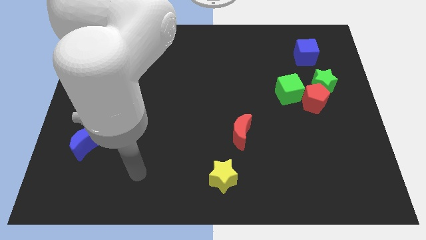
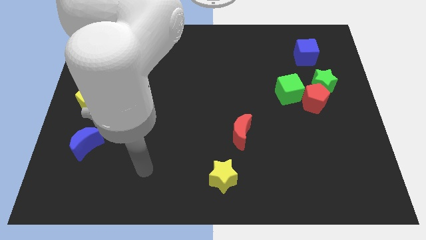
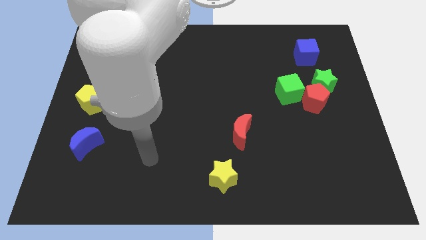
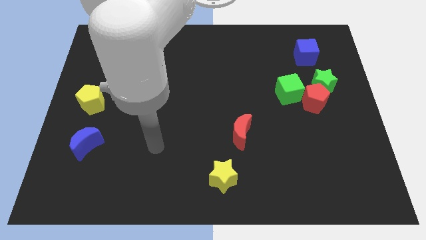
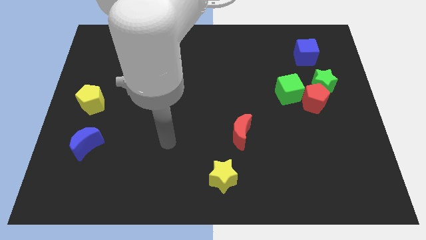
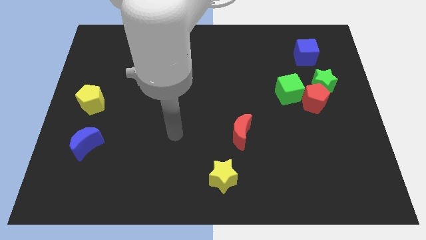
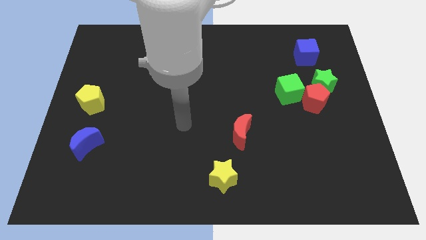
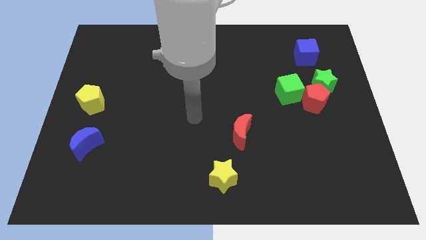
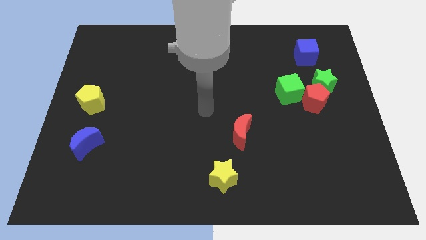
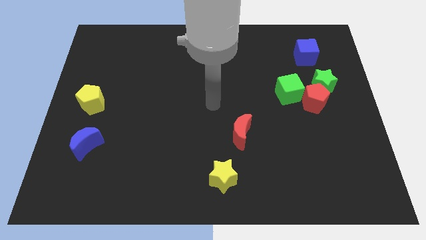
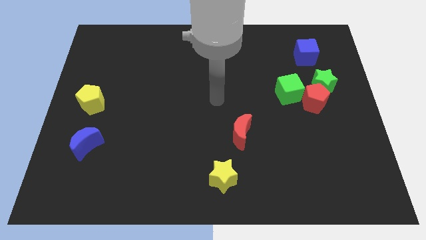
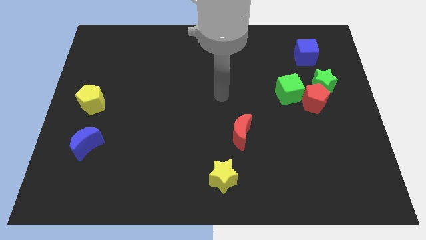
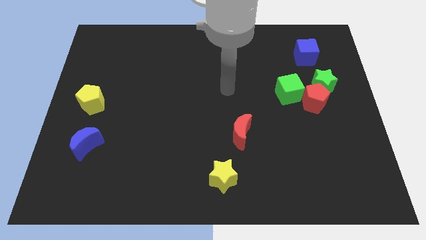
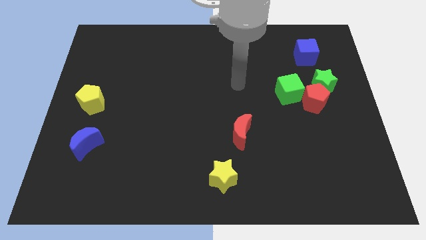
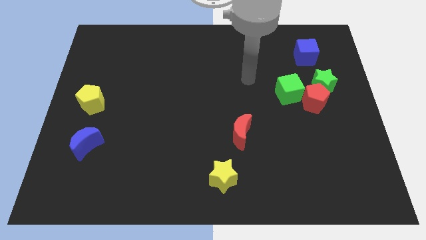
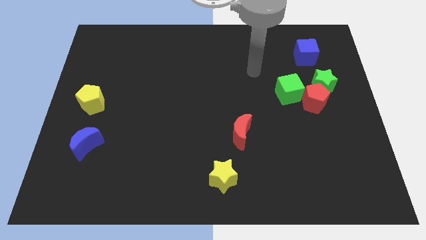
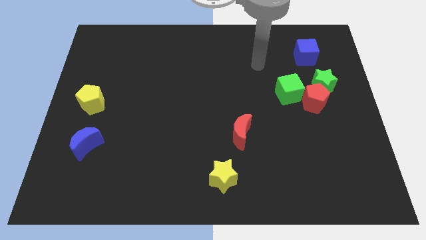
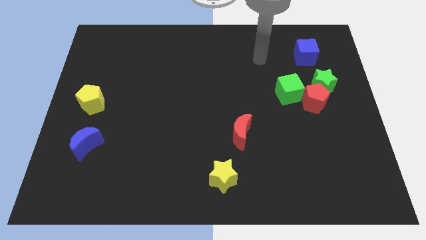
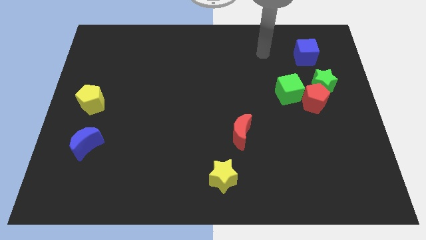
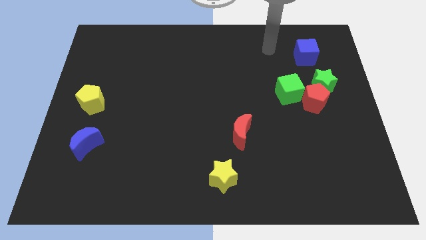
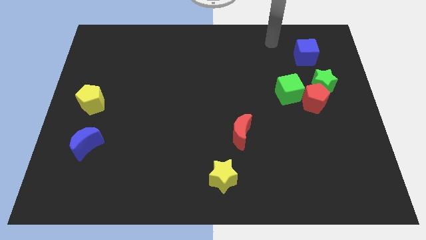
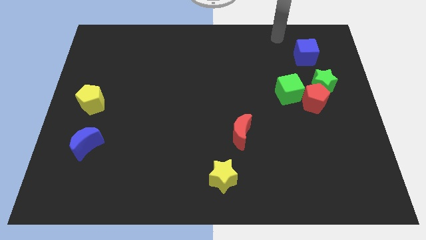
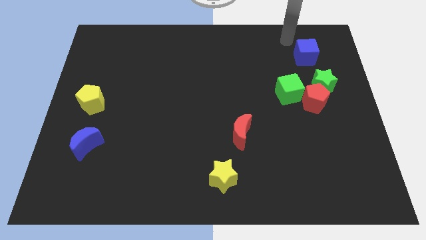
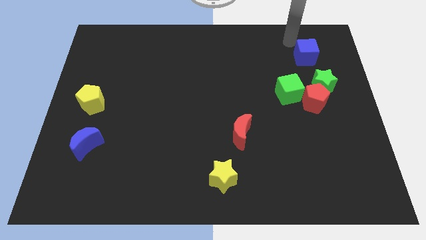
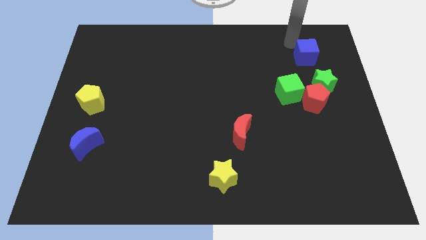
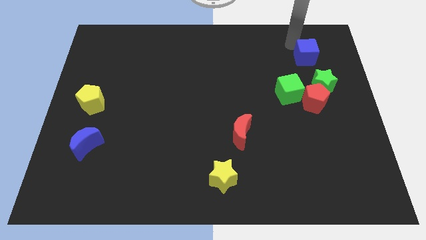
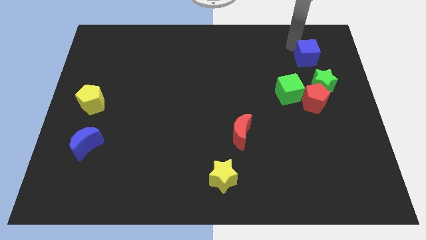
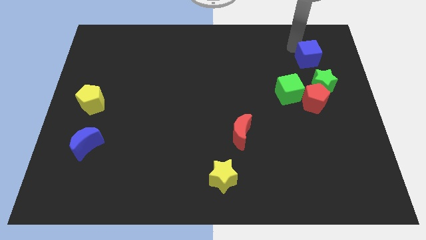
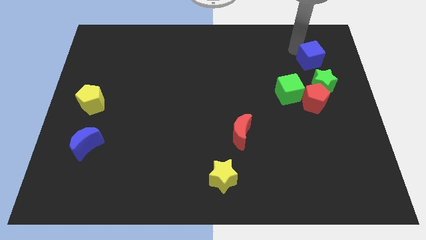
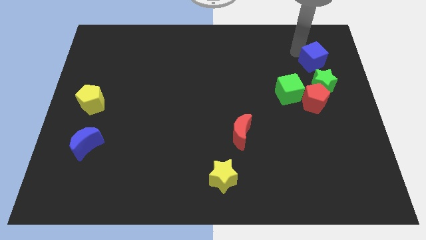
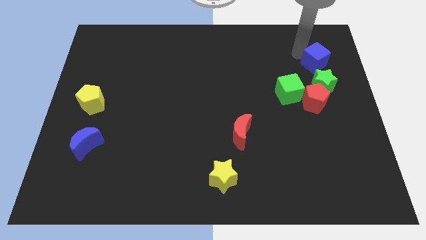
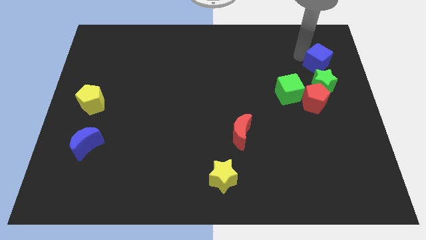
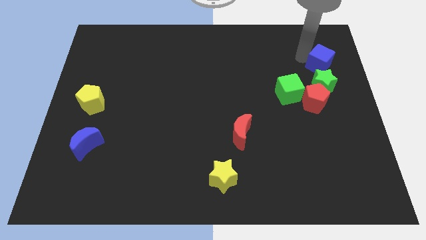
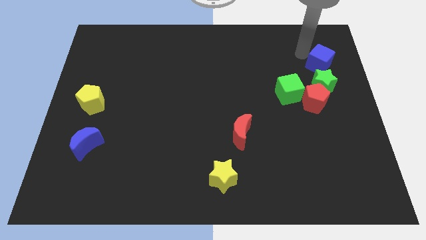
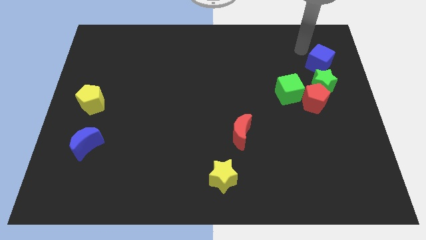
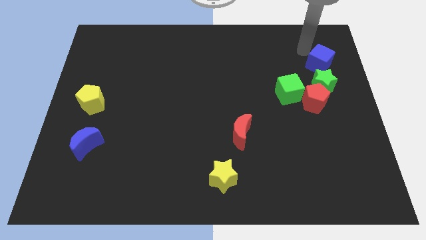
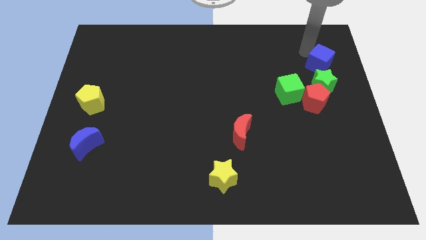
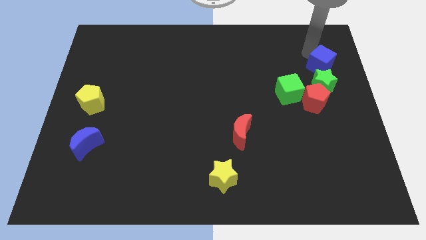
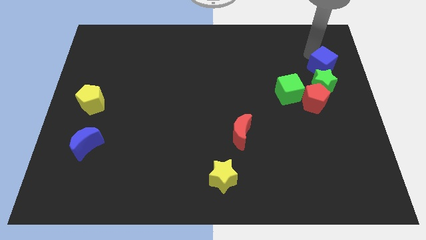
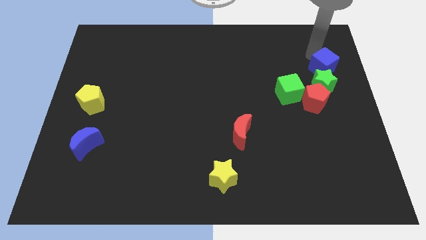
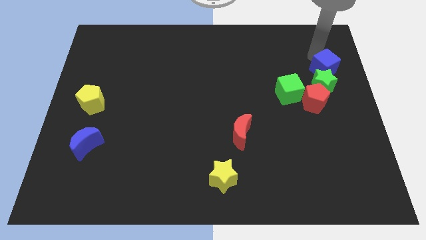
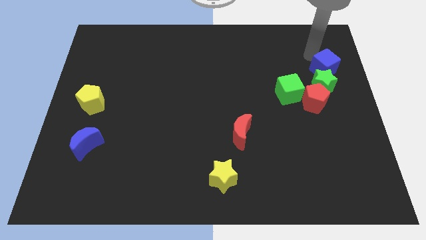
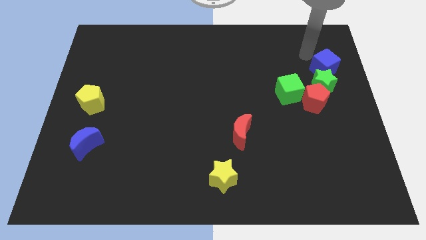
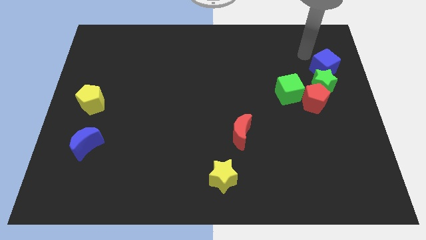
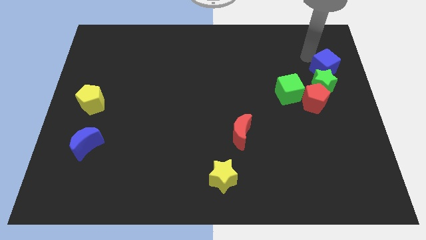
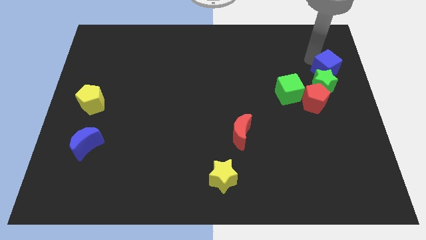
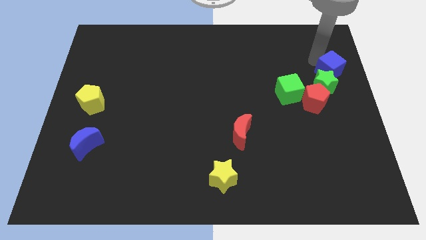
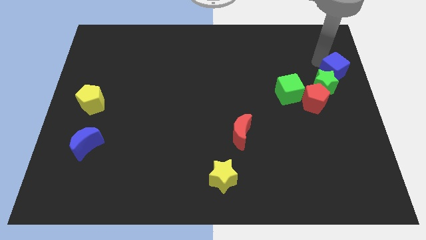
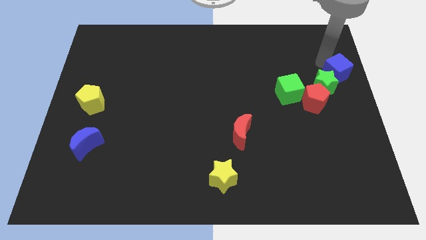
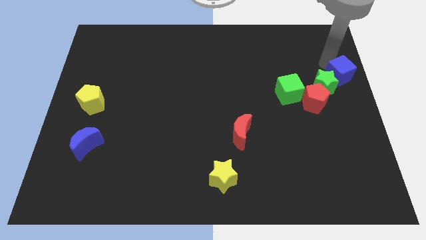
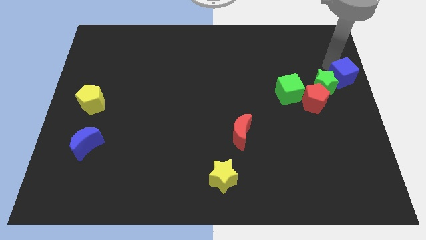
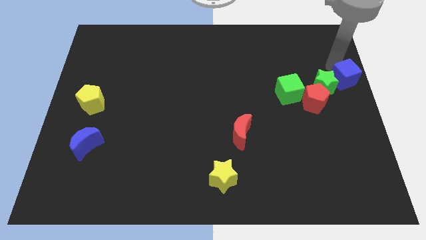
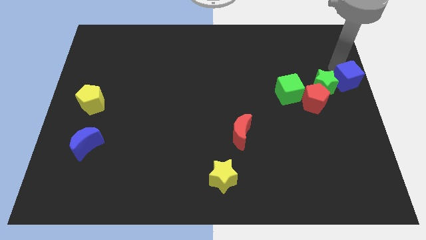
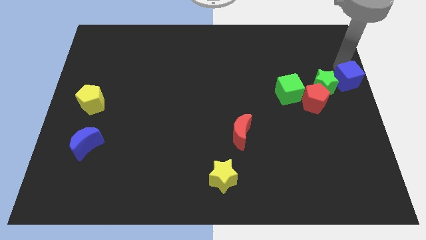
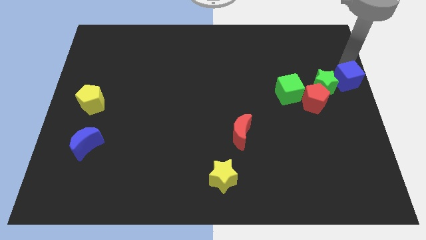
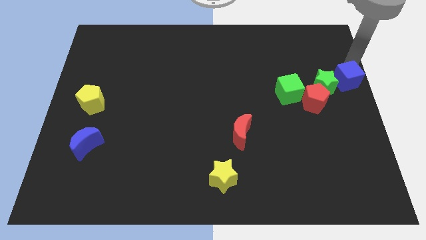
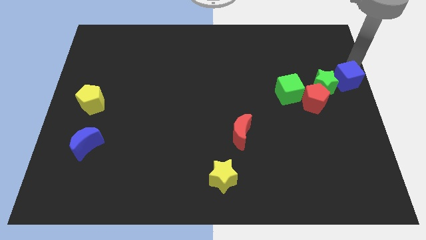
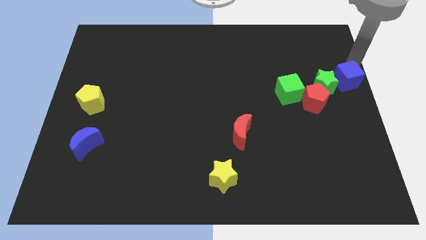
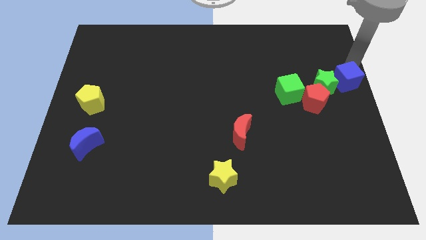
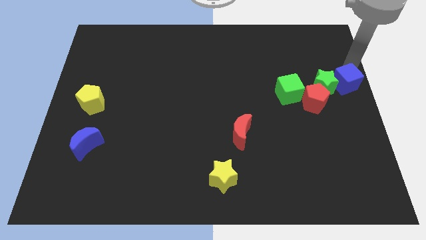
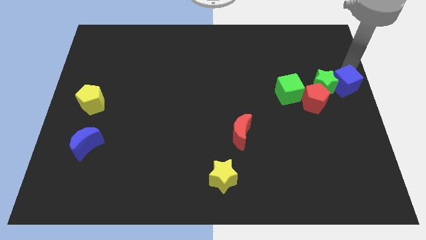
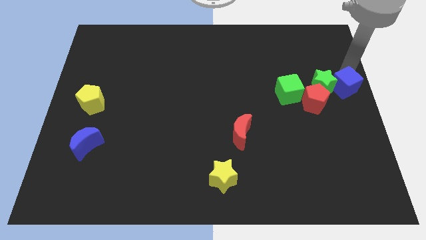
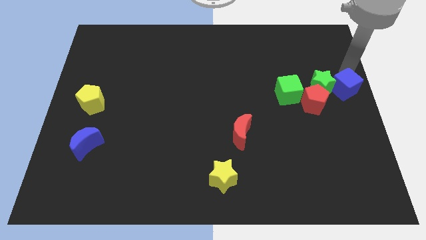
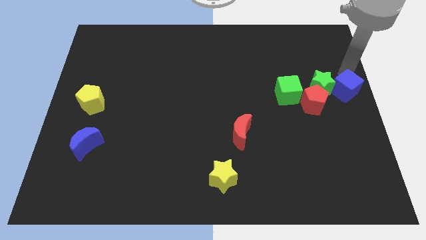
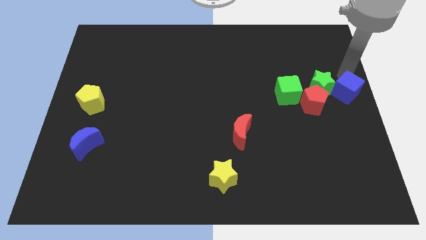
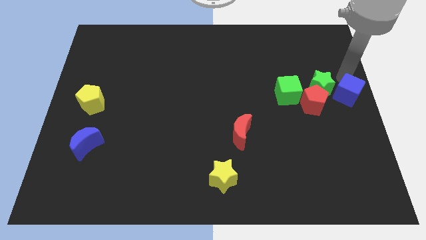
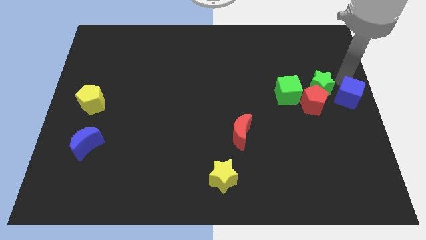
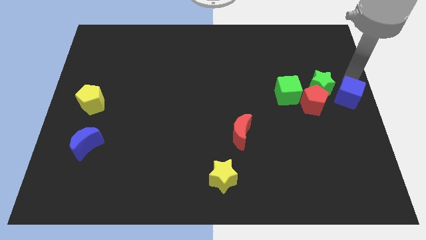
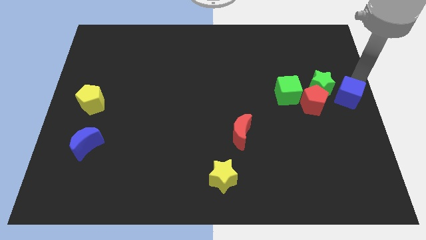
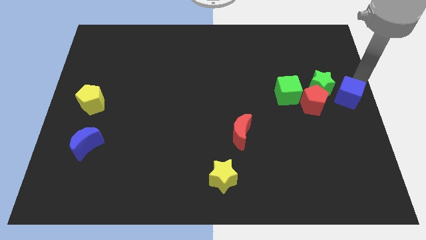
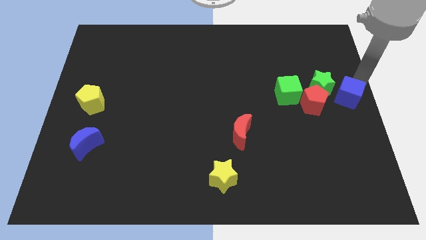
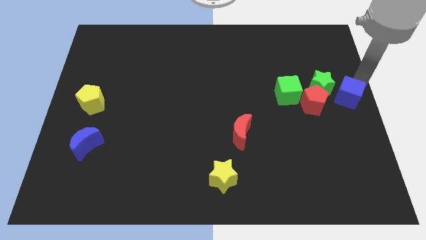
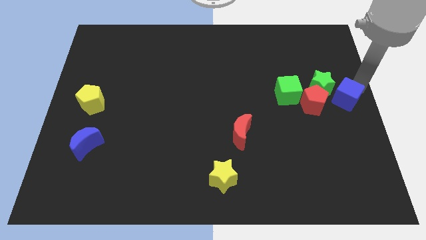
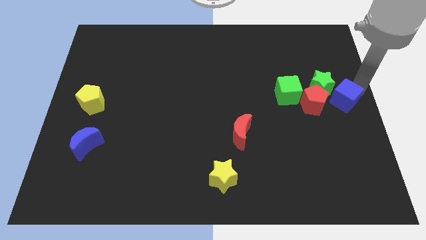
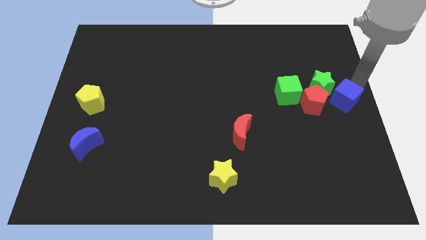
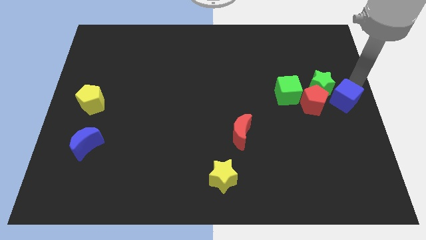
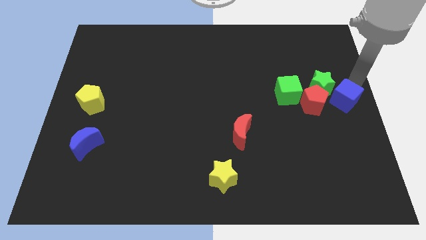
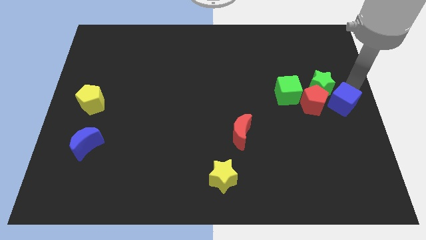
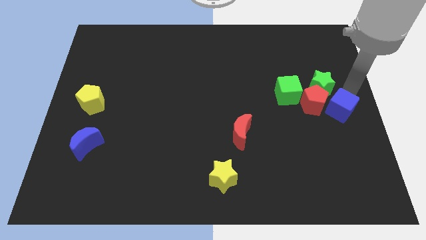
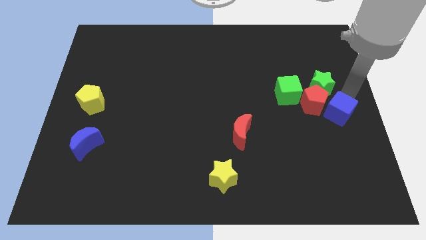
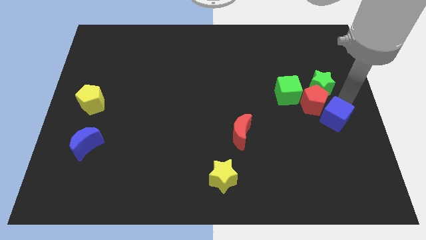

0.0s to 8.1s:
slide the blue cube down
